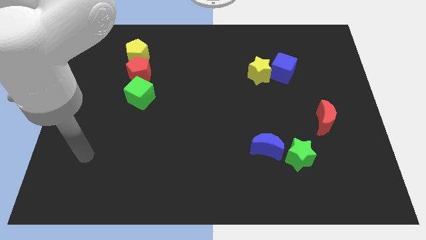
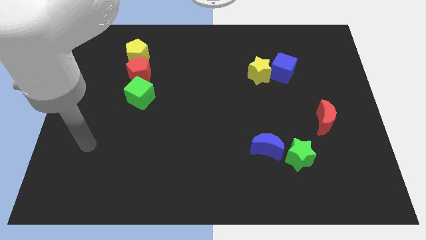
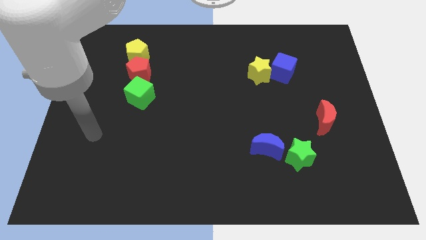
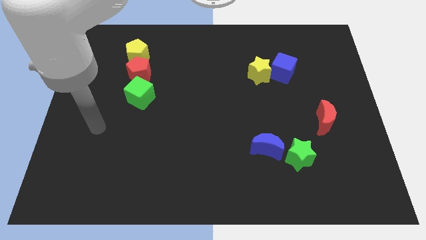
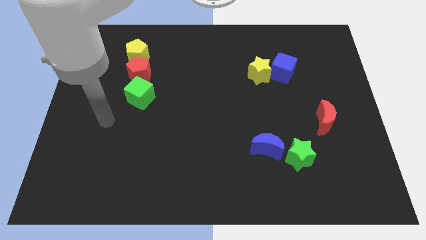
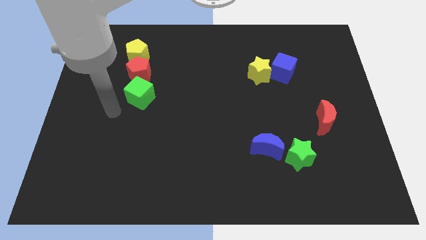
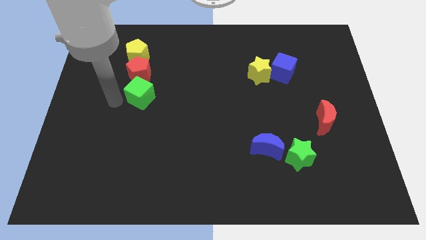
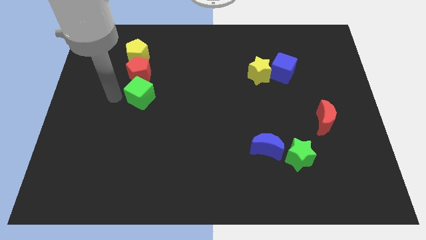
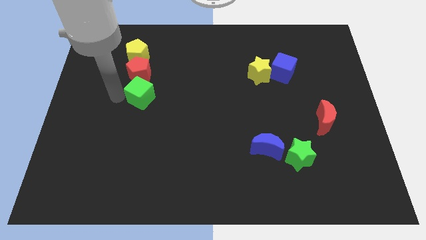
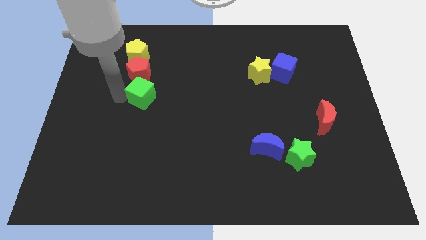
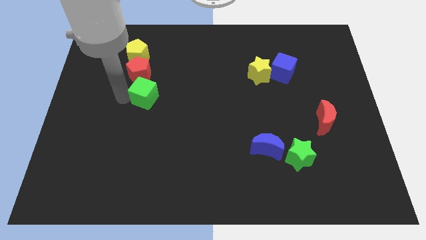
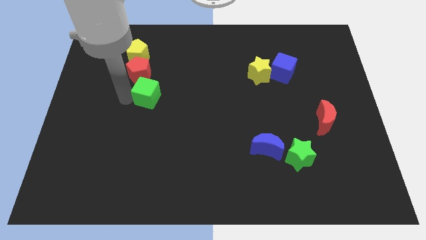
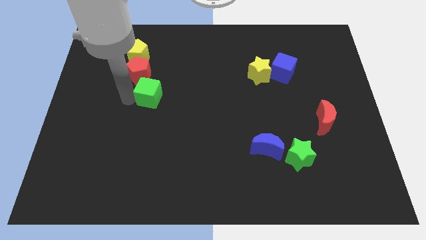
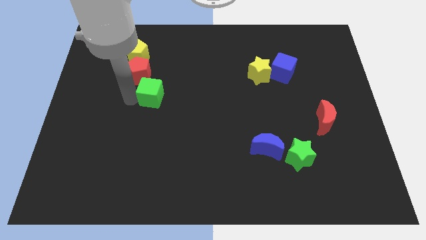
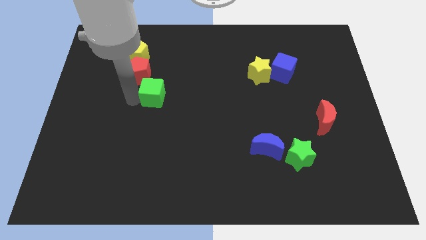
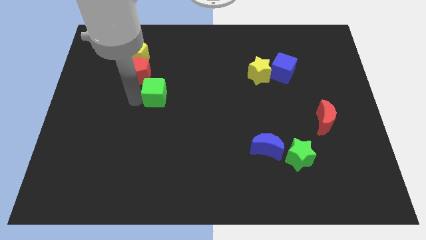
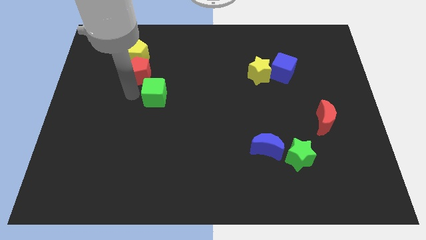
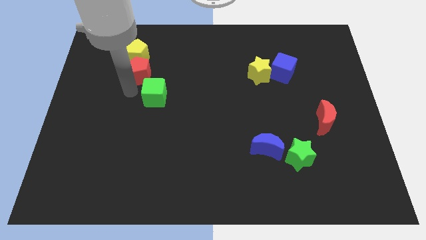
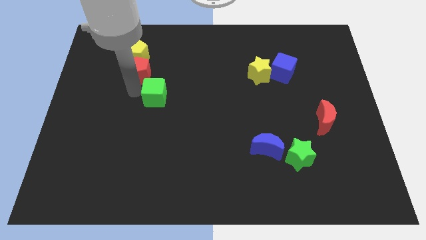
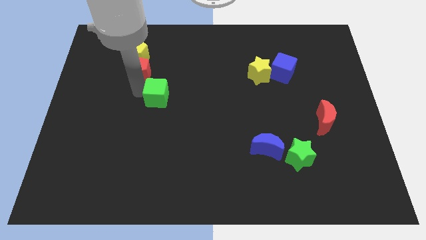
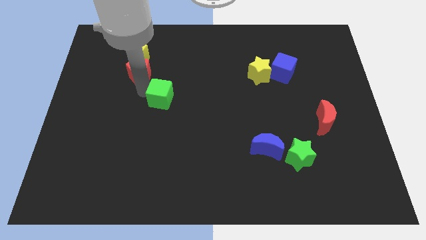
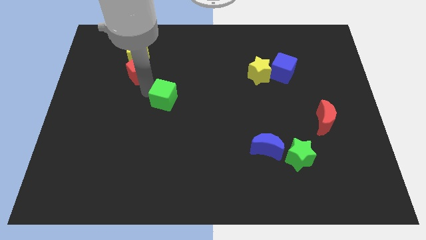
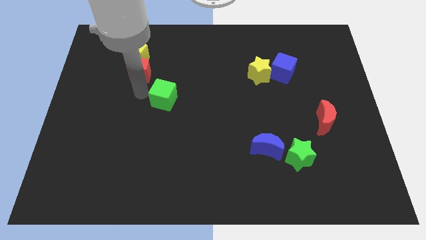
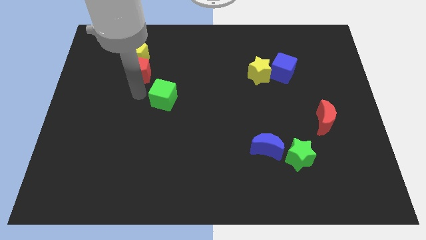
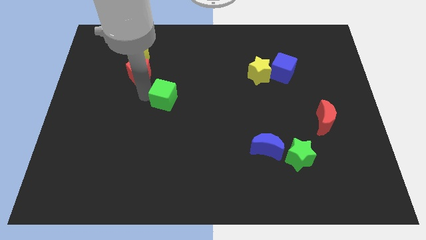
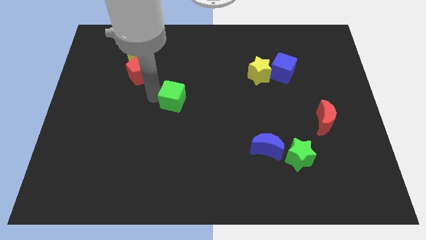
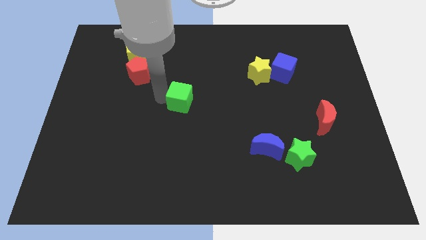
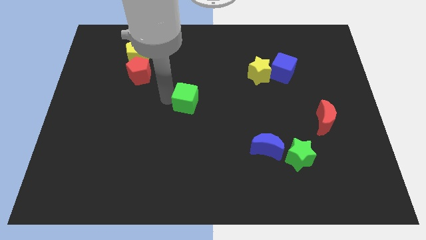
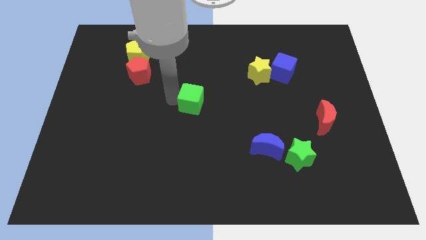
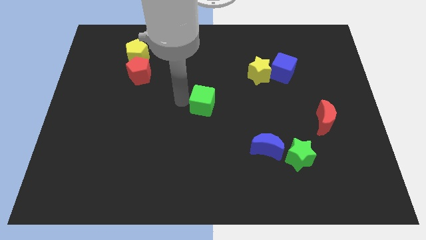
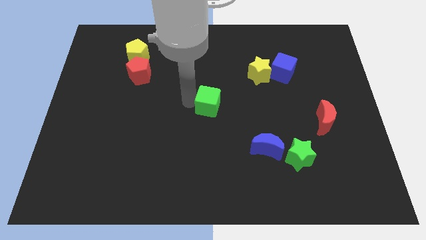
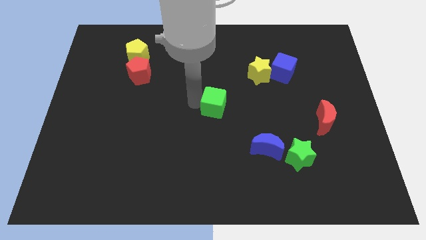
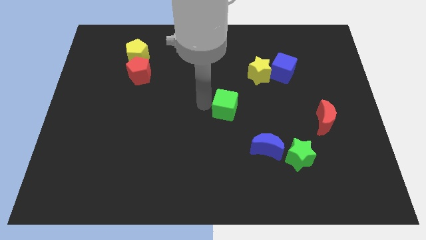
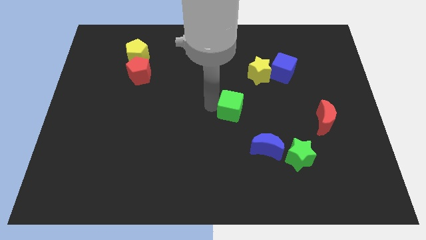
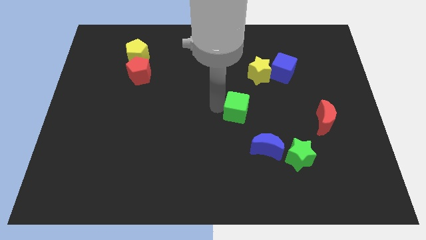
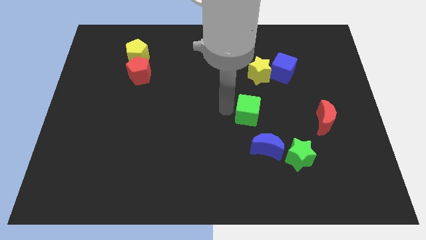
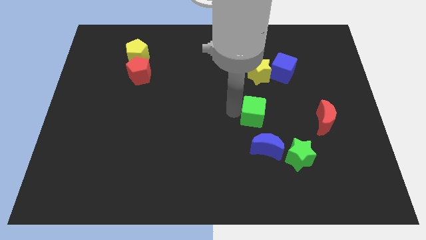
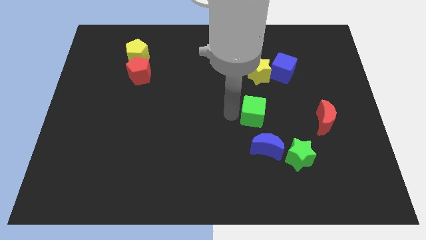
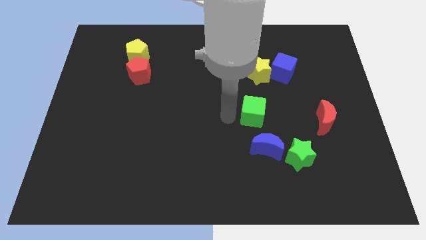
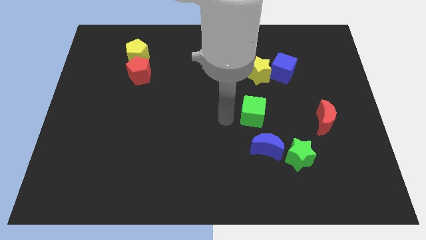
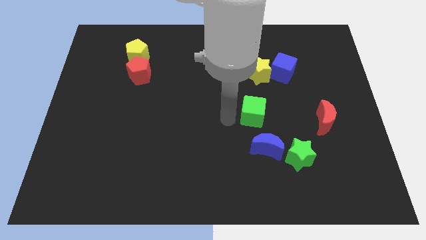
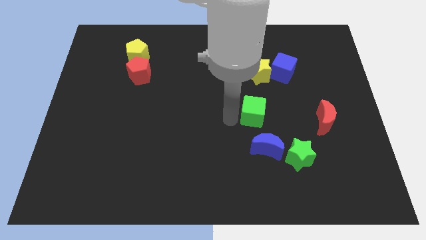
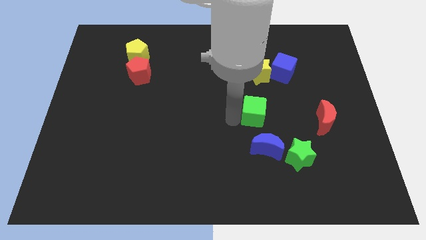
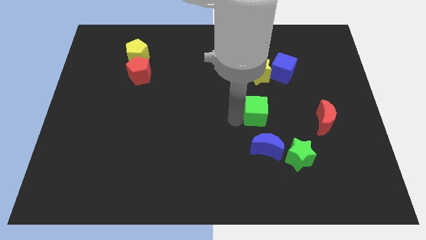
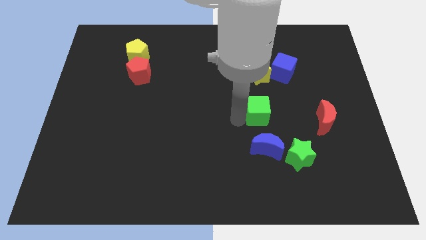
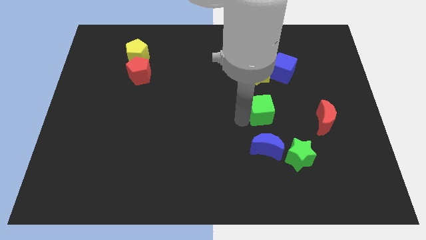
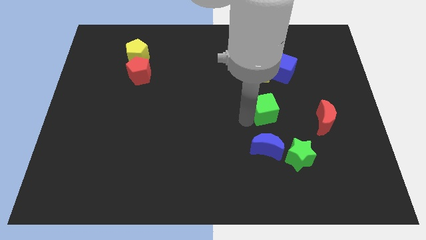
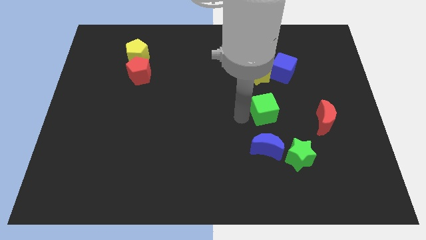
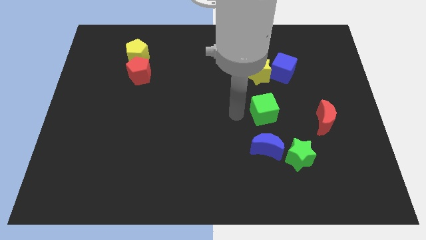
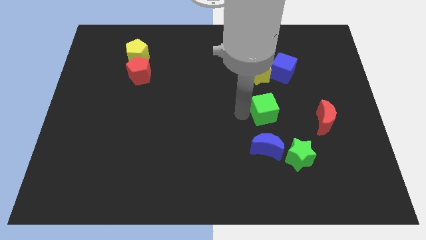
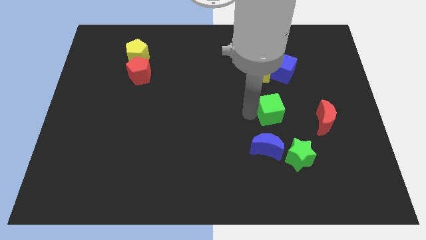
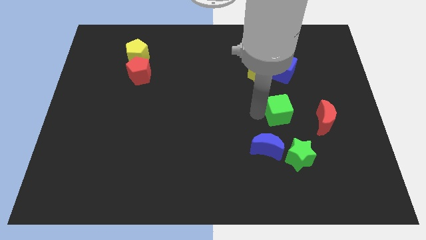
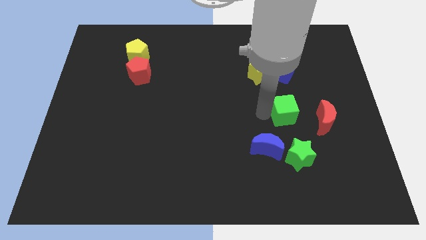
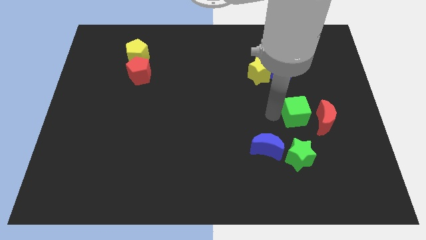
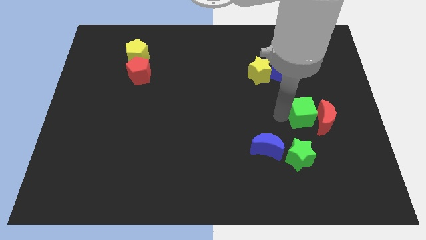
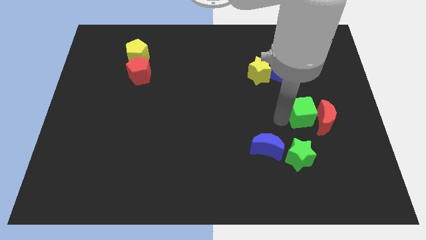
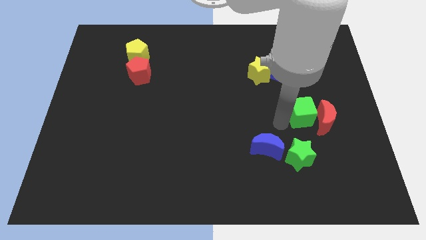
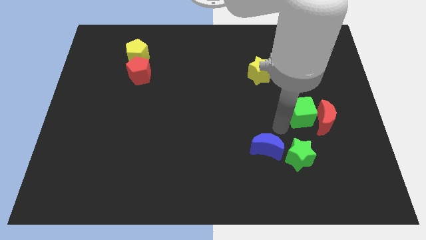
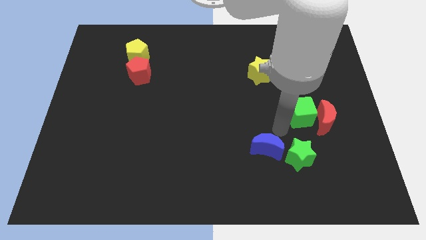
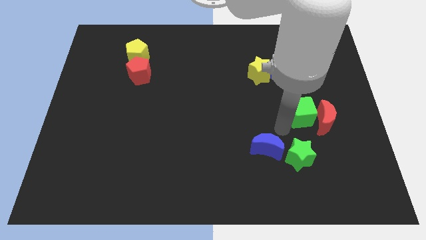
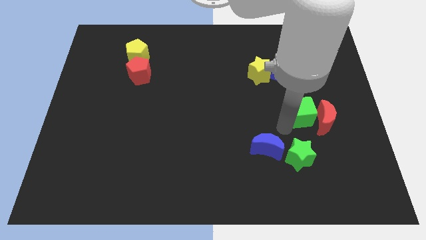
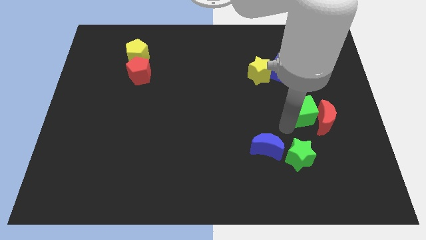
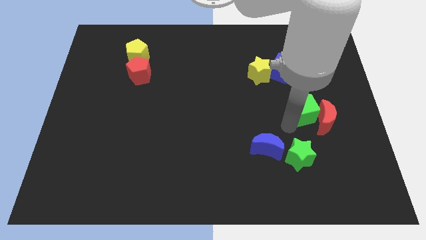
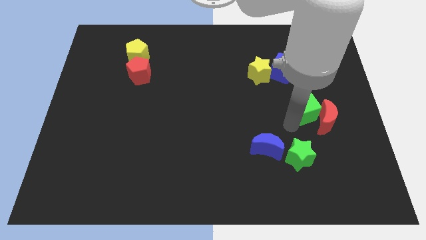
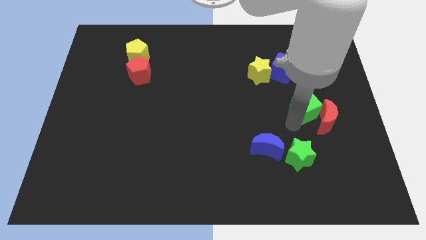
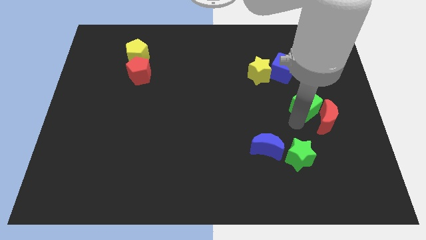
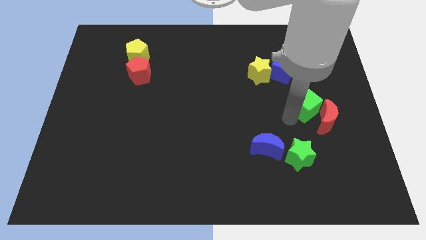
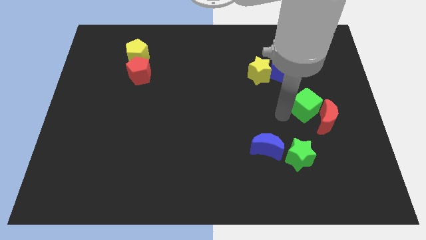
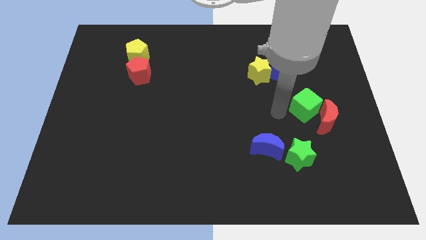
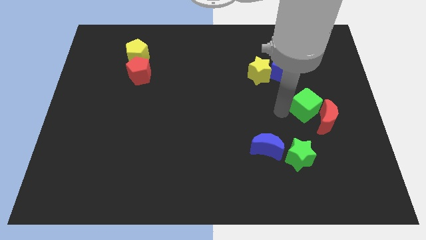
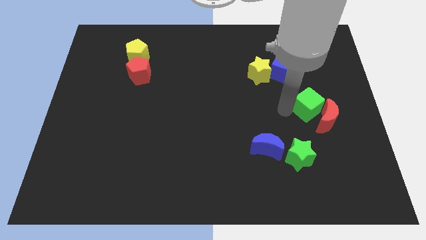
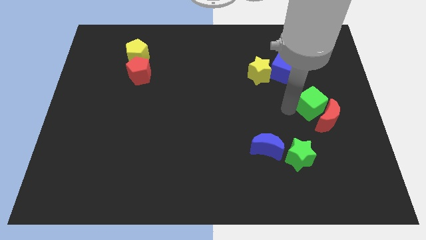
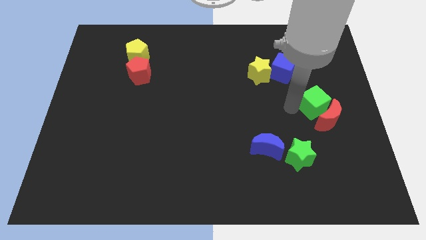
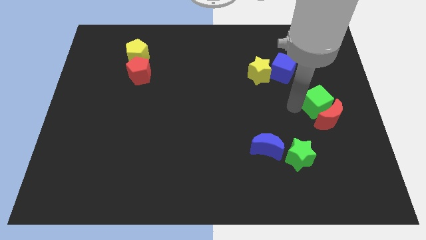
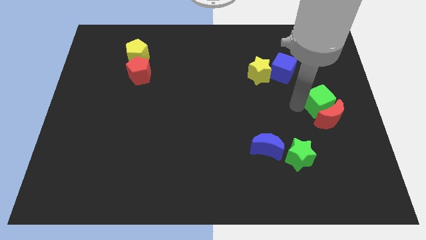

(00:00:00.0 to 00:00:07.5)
slide the green cube to the right side
